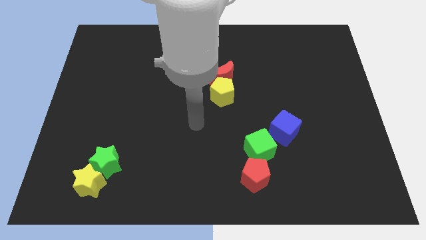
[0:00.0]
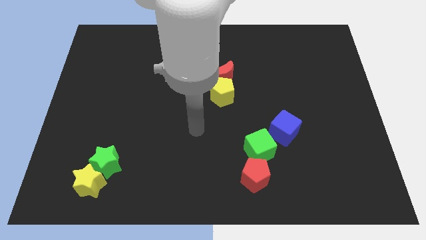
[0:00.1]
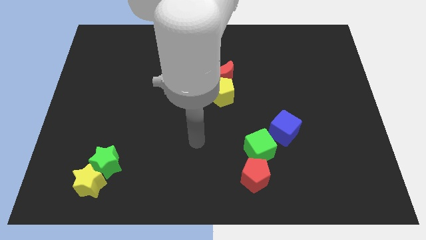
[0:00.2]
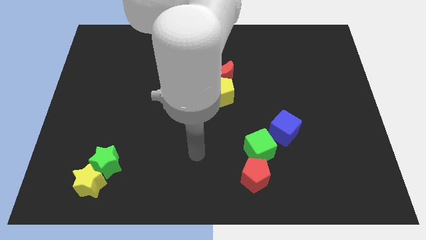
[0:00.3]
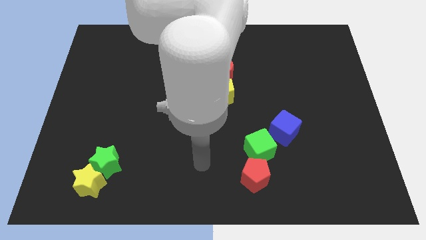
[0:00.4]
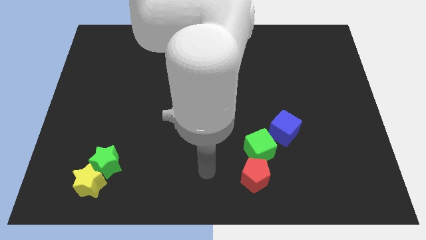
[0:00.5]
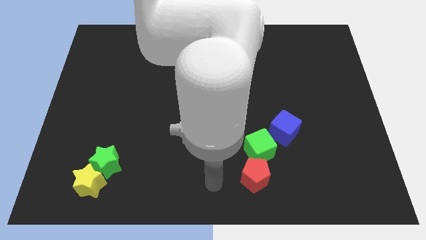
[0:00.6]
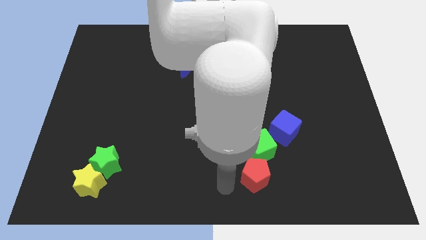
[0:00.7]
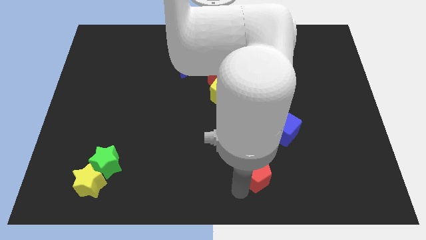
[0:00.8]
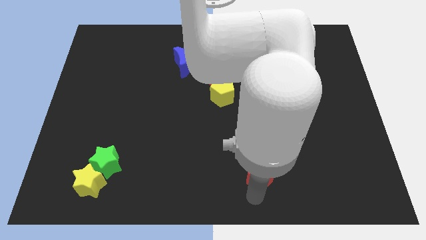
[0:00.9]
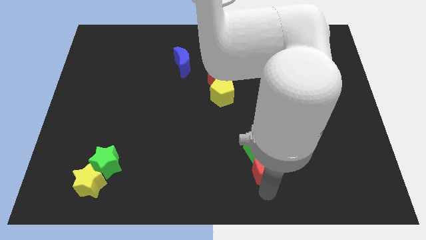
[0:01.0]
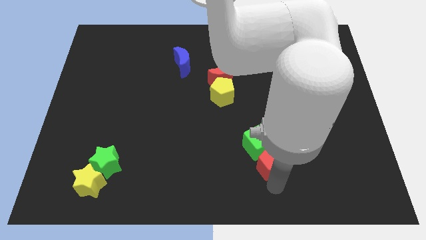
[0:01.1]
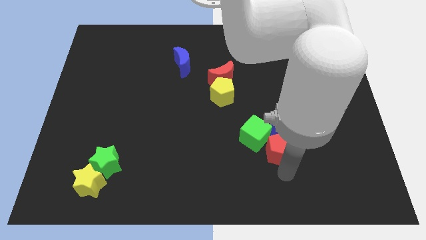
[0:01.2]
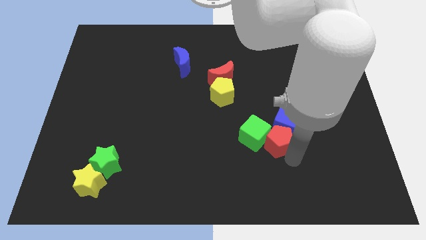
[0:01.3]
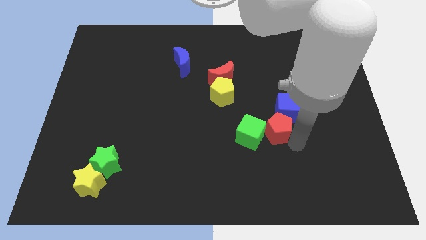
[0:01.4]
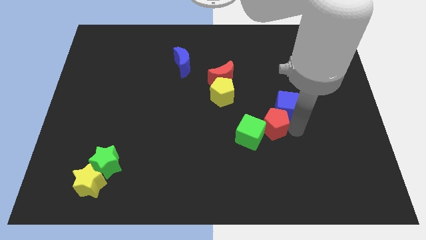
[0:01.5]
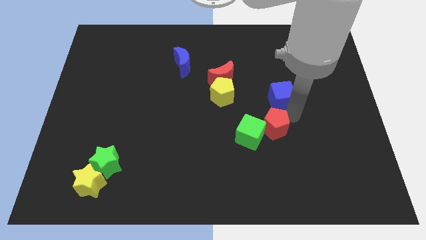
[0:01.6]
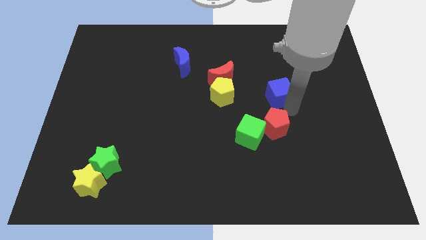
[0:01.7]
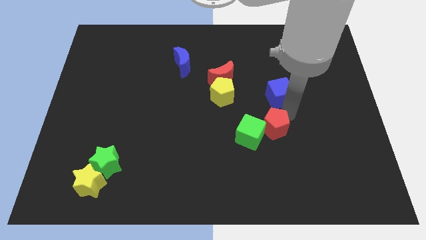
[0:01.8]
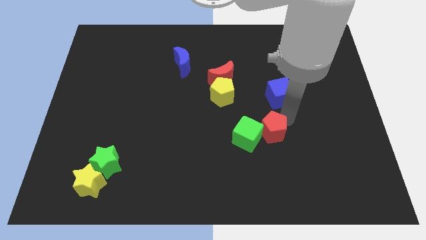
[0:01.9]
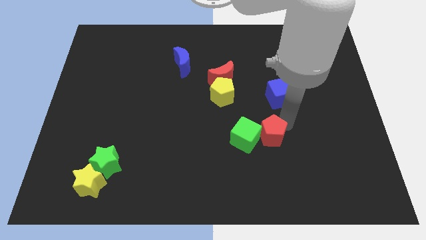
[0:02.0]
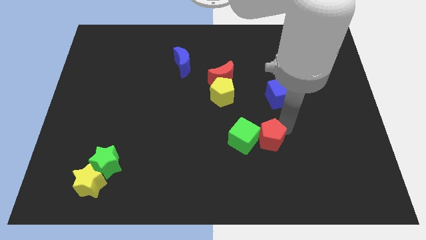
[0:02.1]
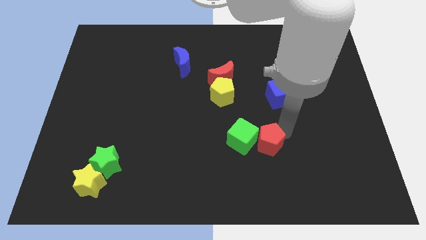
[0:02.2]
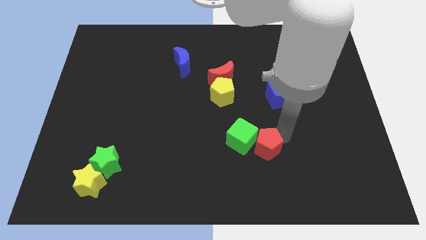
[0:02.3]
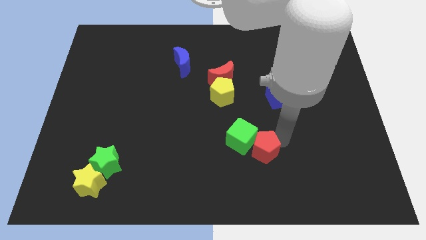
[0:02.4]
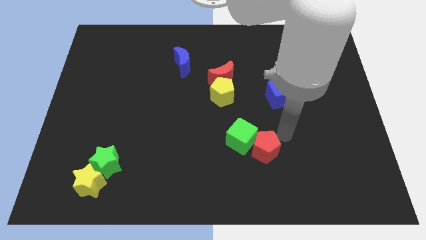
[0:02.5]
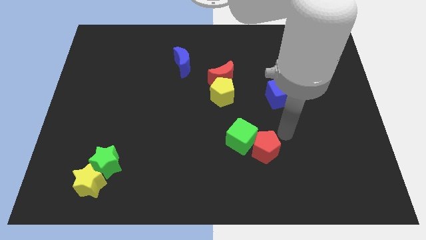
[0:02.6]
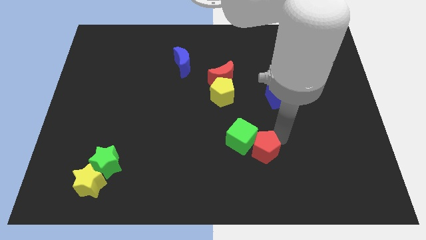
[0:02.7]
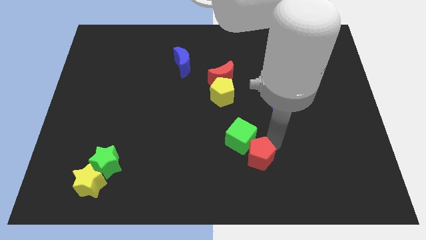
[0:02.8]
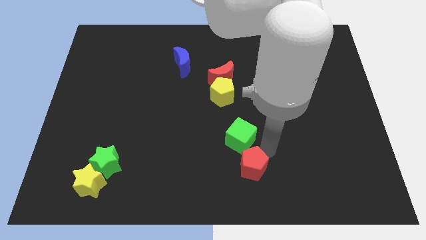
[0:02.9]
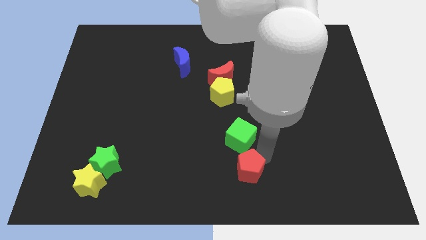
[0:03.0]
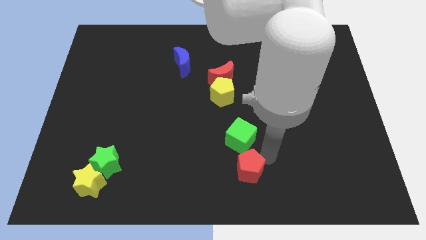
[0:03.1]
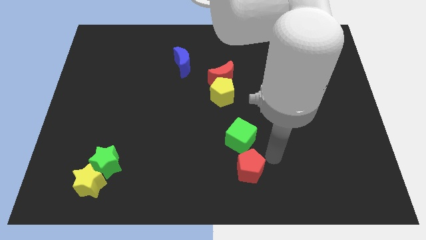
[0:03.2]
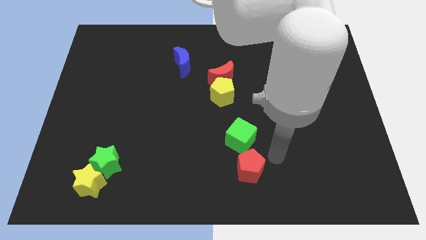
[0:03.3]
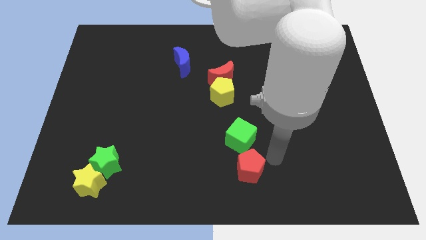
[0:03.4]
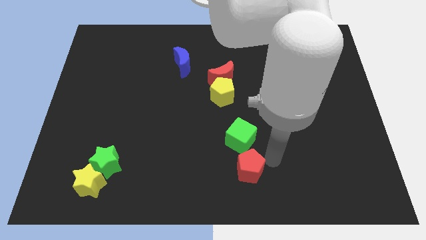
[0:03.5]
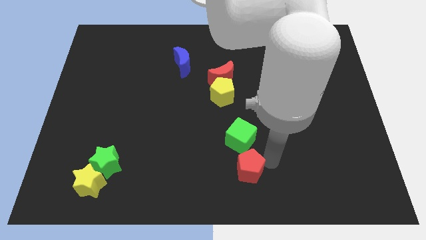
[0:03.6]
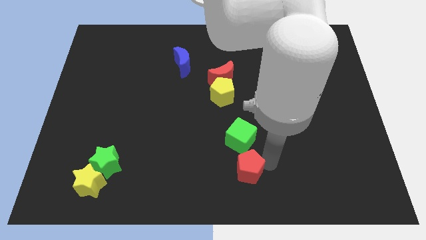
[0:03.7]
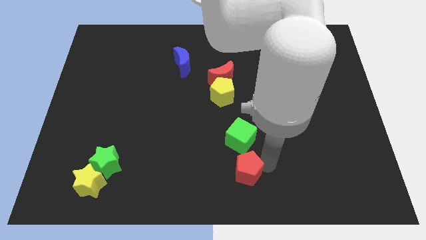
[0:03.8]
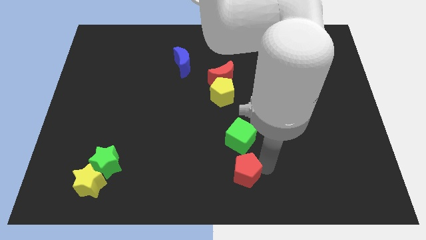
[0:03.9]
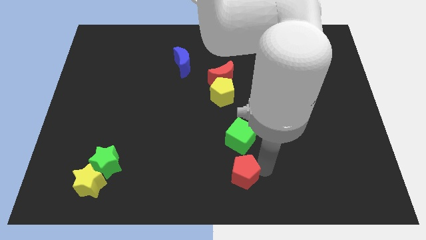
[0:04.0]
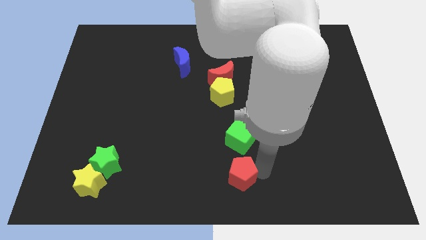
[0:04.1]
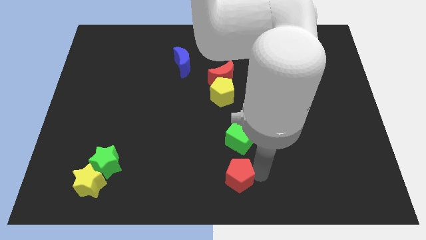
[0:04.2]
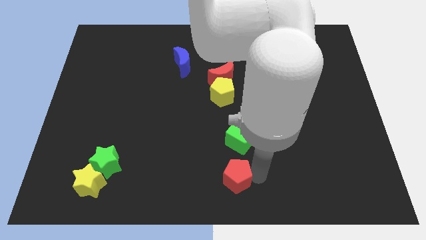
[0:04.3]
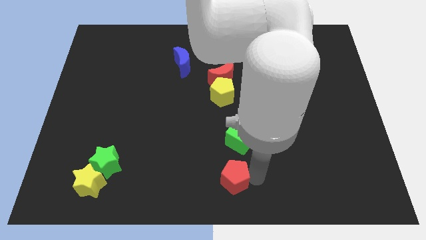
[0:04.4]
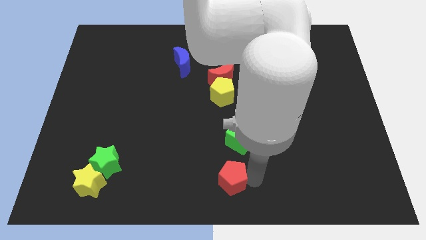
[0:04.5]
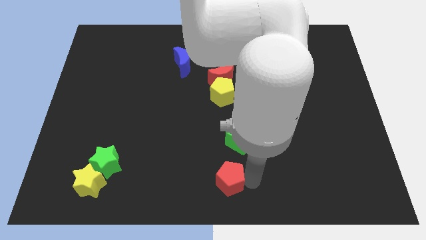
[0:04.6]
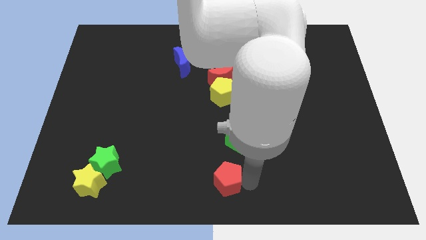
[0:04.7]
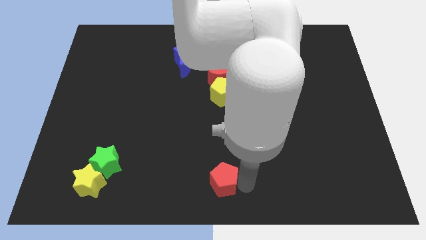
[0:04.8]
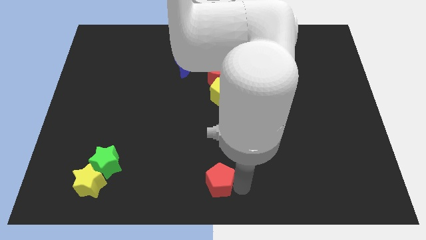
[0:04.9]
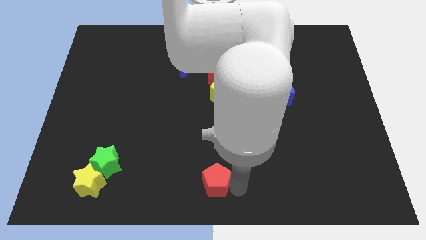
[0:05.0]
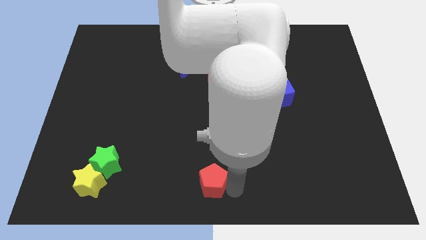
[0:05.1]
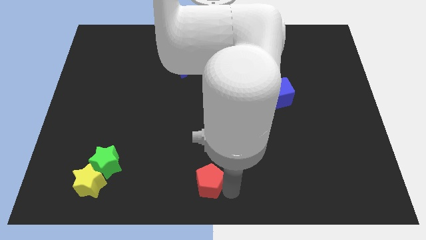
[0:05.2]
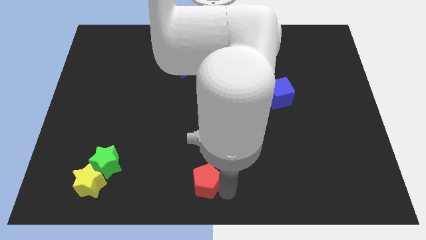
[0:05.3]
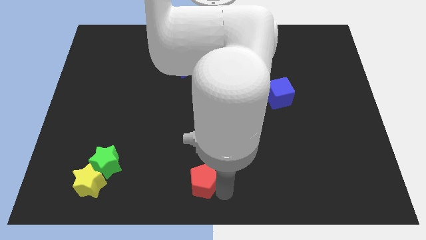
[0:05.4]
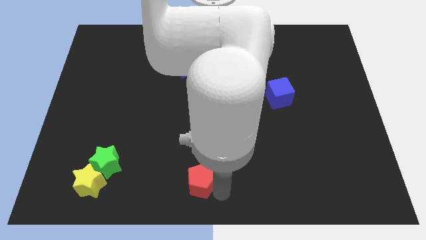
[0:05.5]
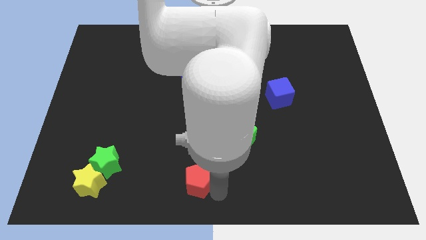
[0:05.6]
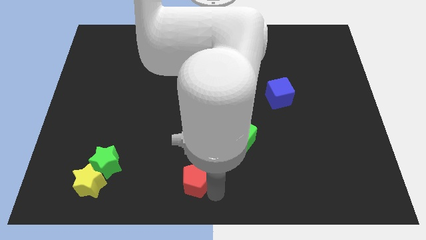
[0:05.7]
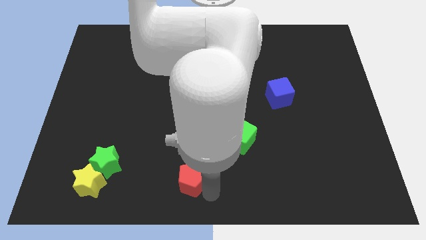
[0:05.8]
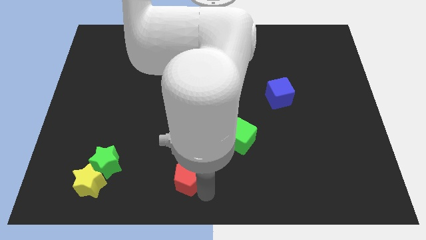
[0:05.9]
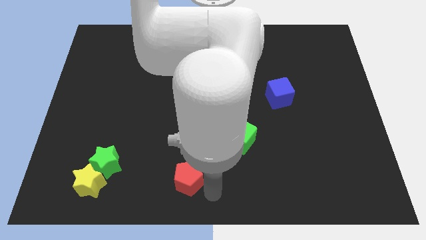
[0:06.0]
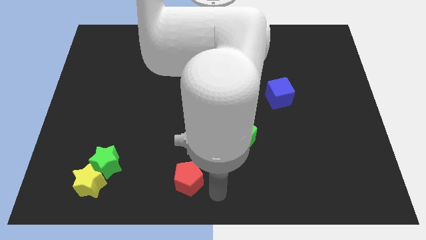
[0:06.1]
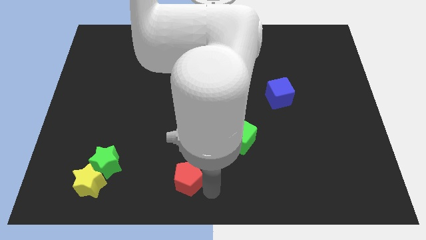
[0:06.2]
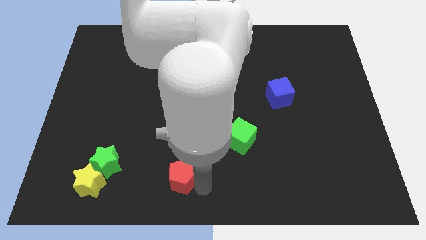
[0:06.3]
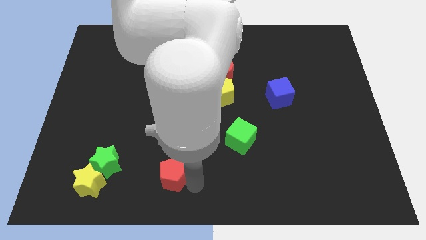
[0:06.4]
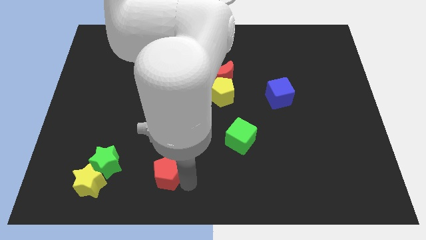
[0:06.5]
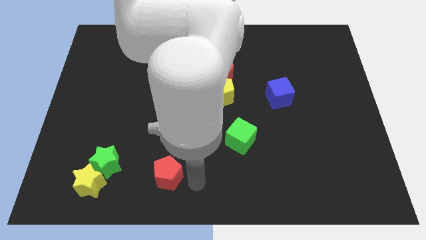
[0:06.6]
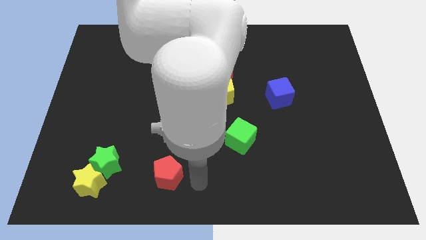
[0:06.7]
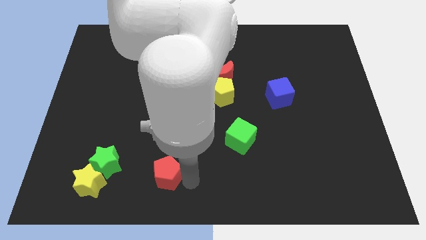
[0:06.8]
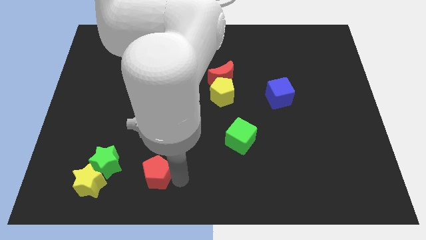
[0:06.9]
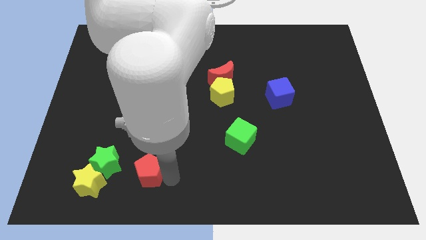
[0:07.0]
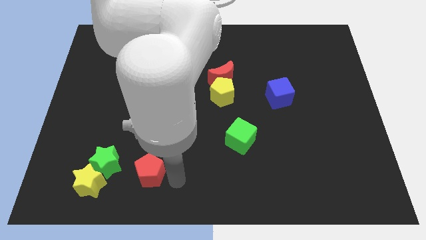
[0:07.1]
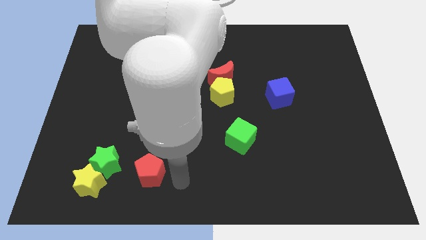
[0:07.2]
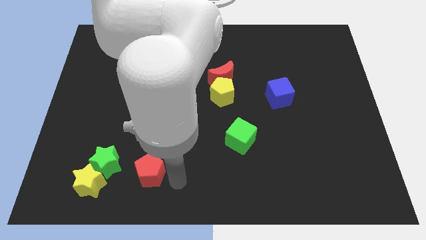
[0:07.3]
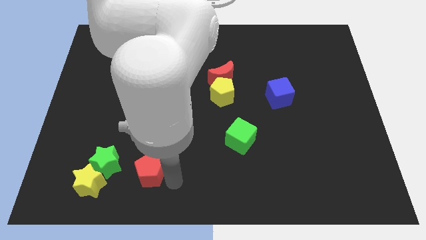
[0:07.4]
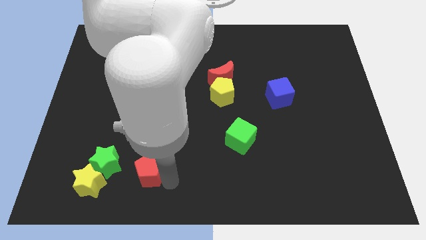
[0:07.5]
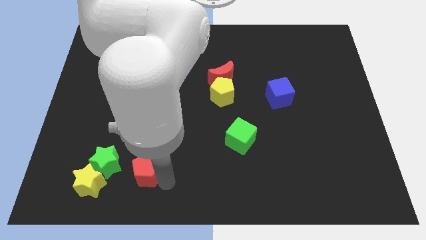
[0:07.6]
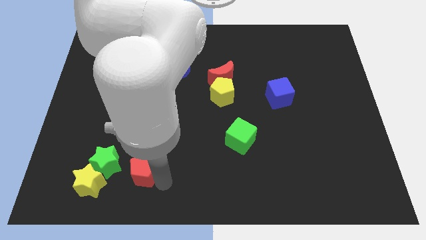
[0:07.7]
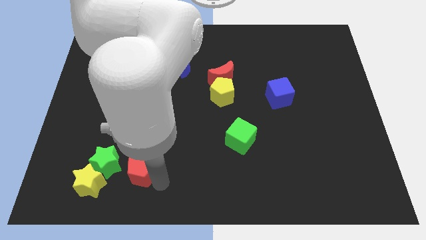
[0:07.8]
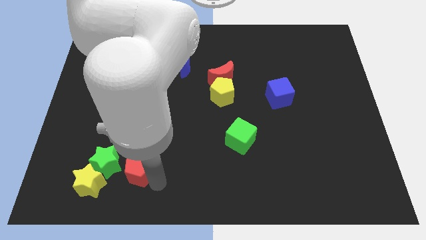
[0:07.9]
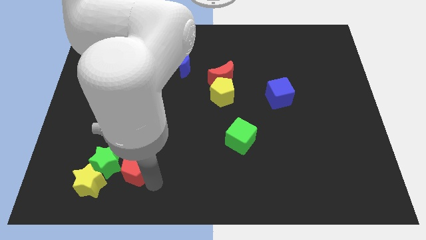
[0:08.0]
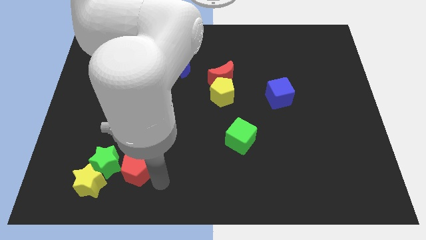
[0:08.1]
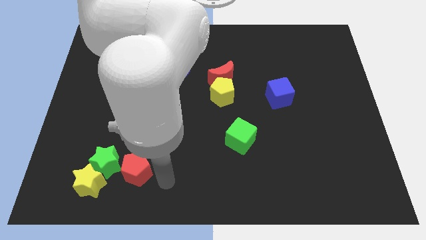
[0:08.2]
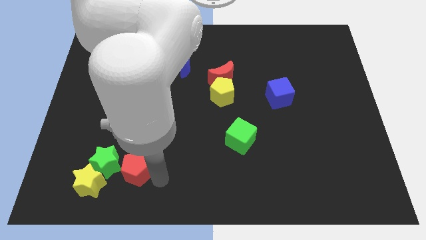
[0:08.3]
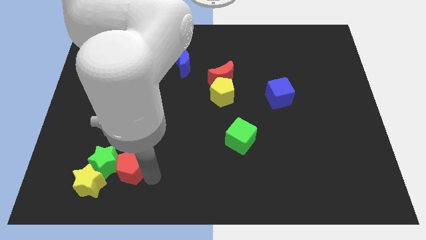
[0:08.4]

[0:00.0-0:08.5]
put the red pentagon next to the green star
